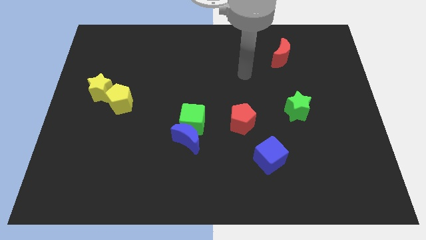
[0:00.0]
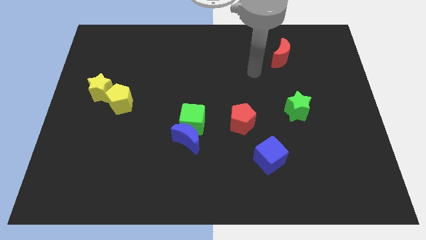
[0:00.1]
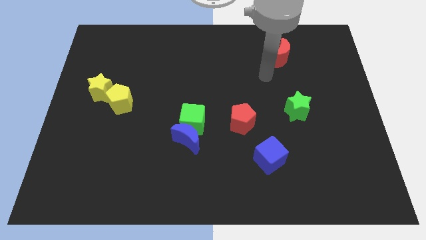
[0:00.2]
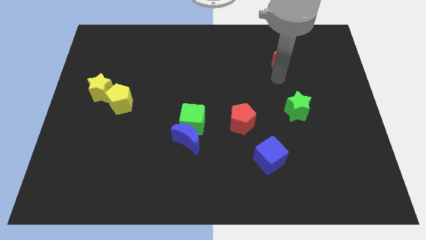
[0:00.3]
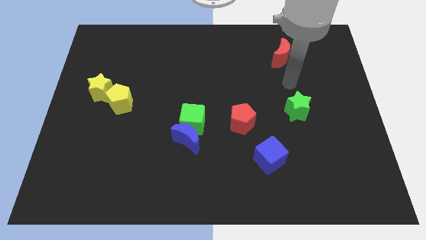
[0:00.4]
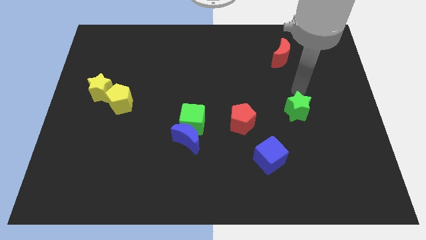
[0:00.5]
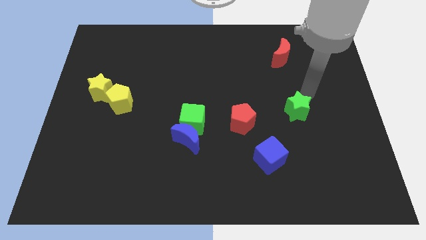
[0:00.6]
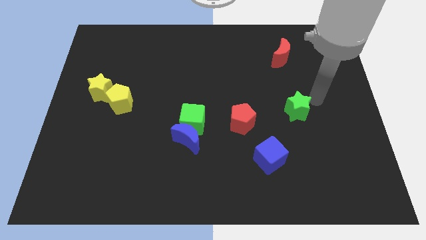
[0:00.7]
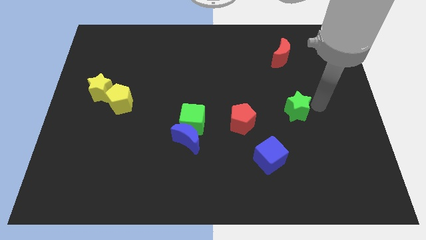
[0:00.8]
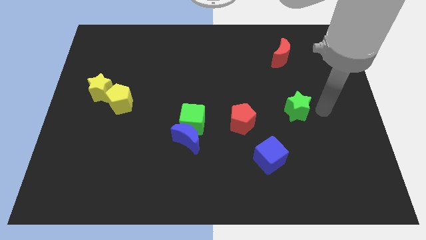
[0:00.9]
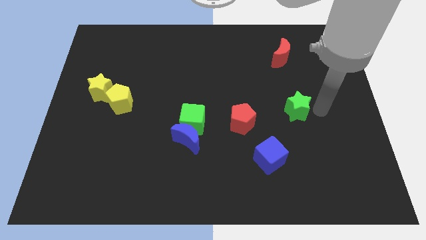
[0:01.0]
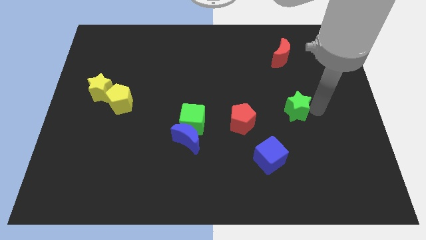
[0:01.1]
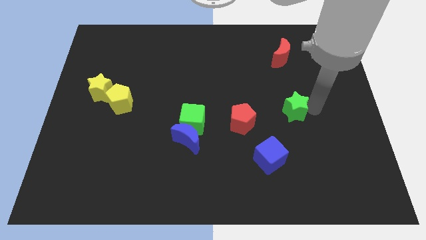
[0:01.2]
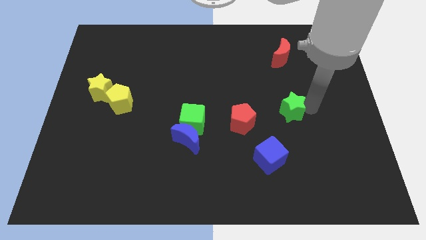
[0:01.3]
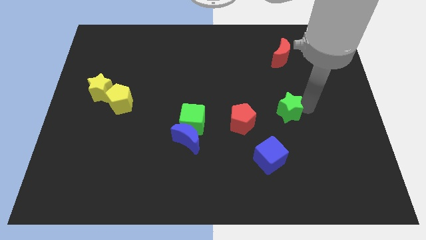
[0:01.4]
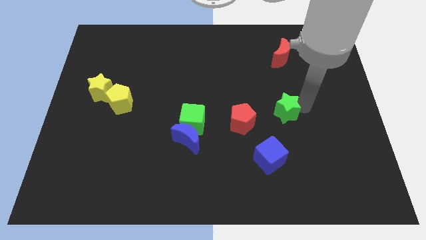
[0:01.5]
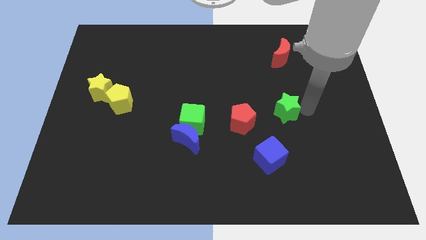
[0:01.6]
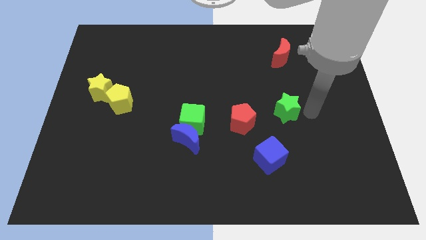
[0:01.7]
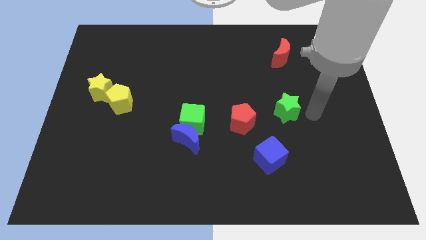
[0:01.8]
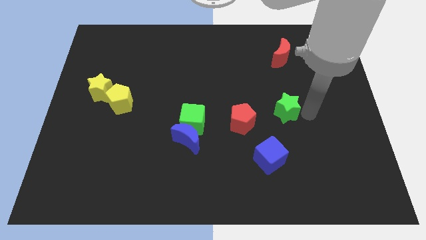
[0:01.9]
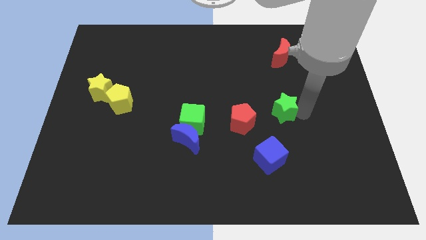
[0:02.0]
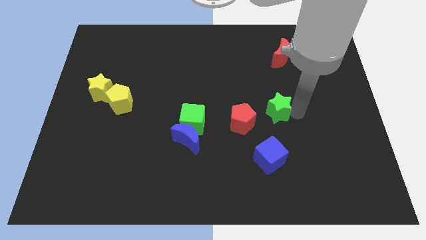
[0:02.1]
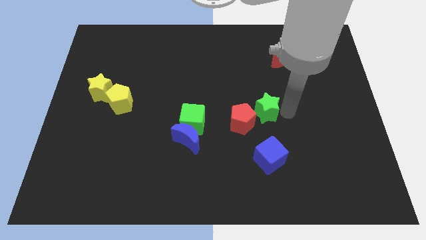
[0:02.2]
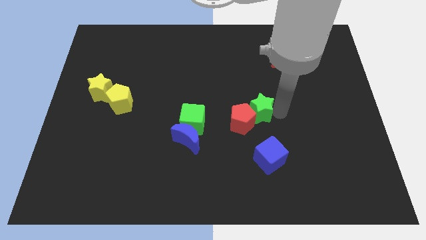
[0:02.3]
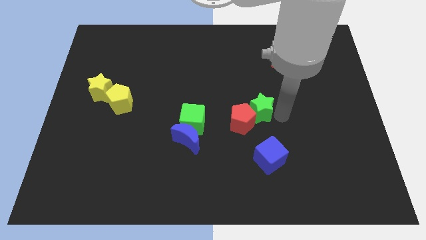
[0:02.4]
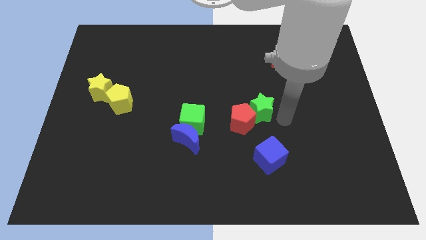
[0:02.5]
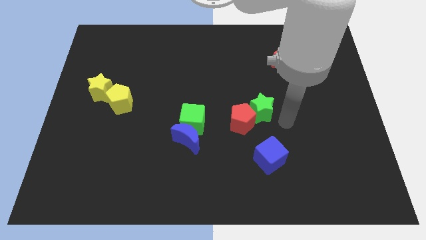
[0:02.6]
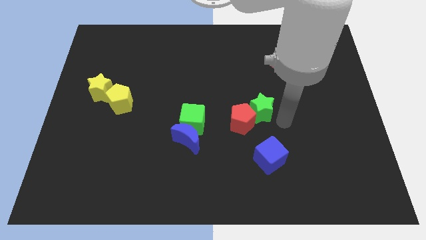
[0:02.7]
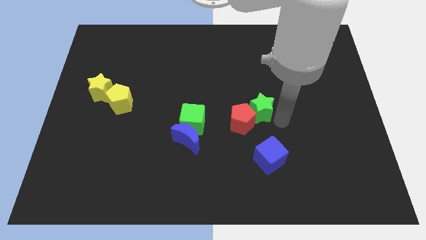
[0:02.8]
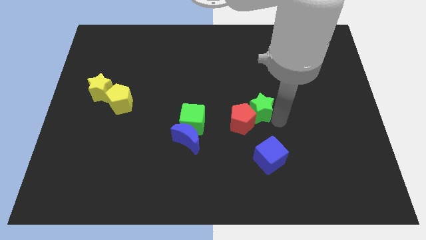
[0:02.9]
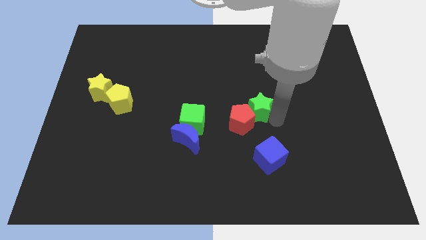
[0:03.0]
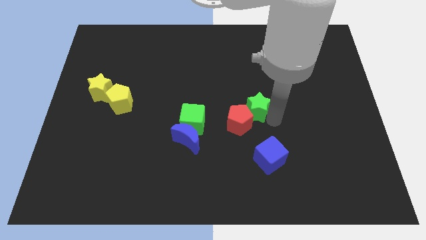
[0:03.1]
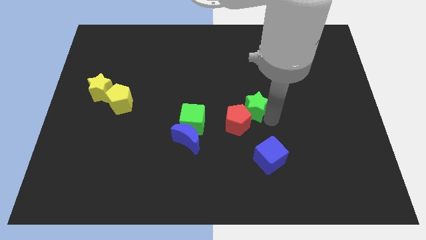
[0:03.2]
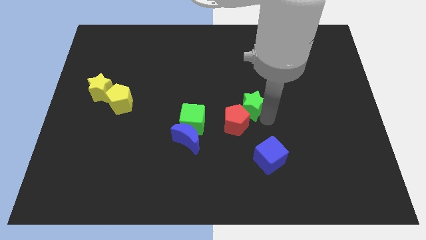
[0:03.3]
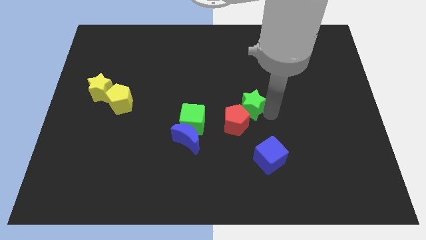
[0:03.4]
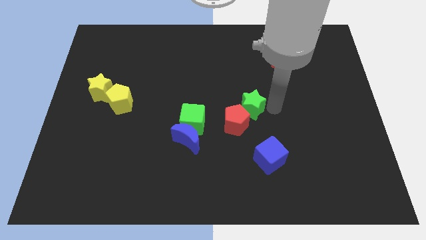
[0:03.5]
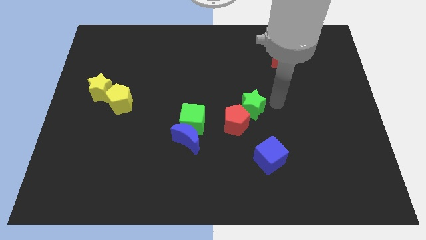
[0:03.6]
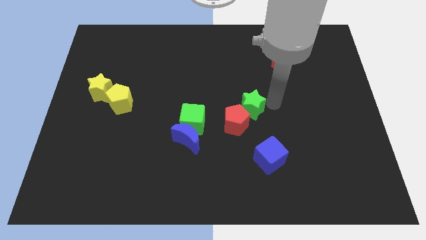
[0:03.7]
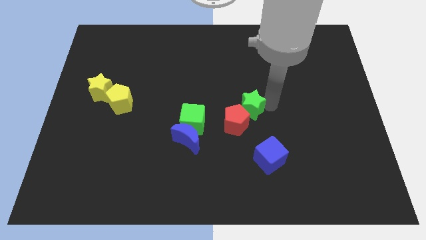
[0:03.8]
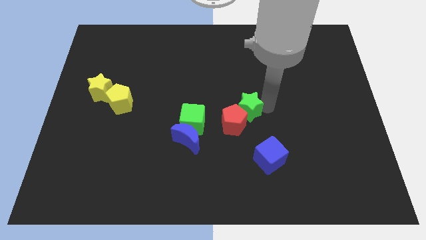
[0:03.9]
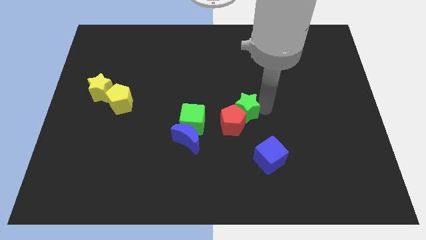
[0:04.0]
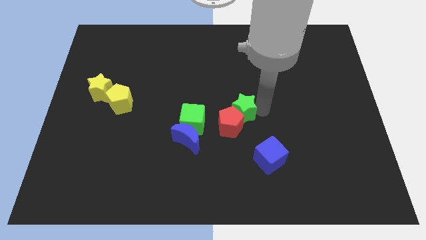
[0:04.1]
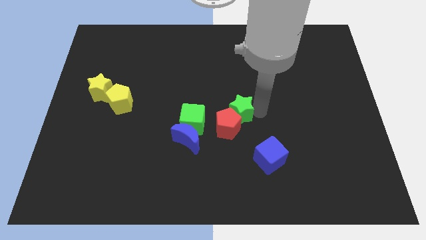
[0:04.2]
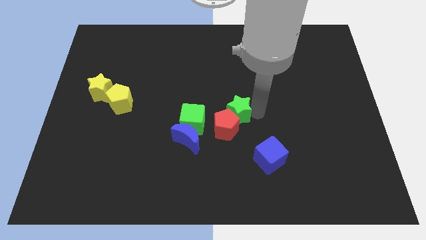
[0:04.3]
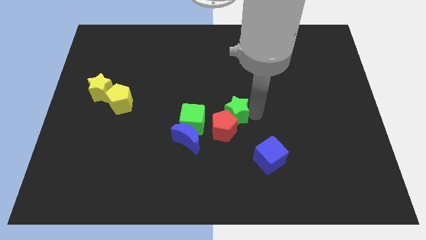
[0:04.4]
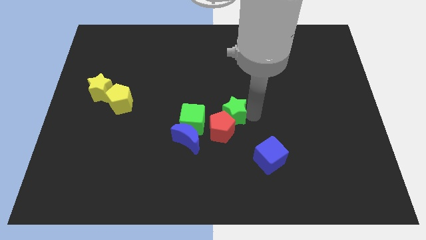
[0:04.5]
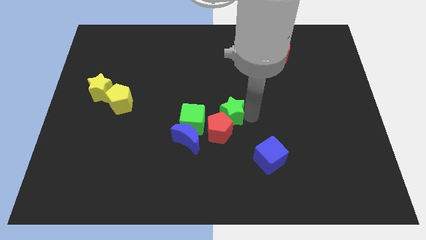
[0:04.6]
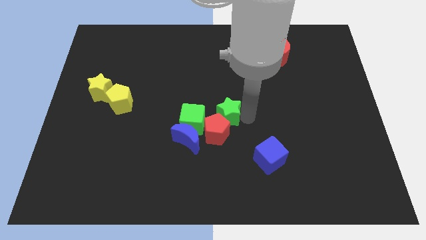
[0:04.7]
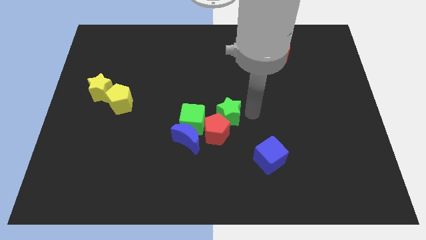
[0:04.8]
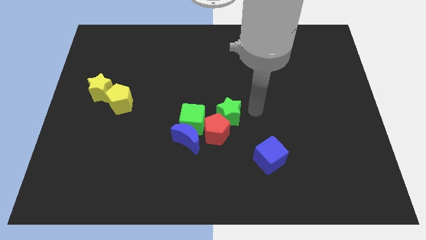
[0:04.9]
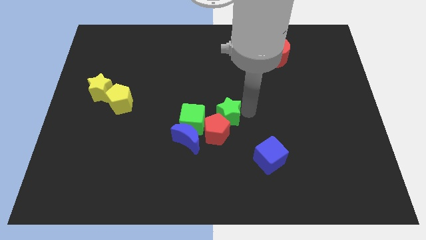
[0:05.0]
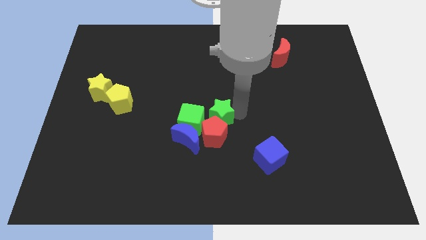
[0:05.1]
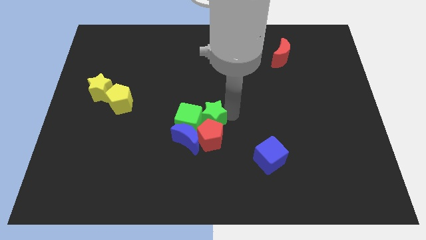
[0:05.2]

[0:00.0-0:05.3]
put the green star next to the green cube

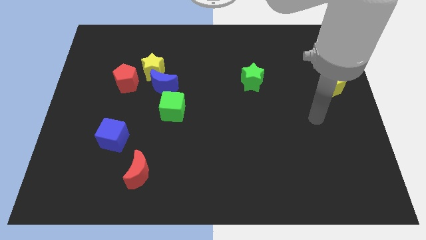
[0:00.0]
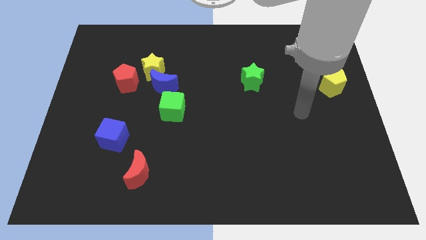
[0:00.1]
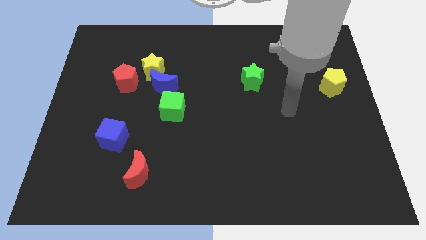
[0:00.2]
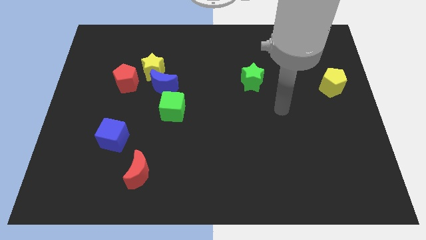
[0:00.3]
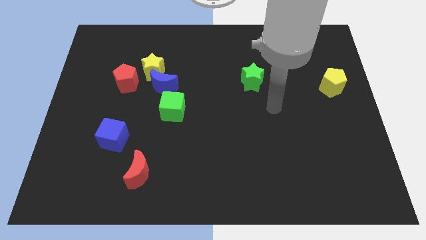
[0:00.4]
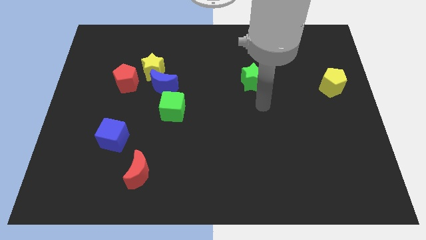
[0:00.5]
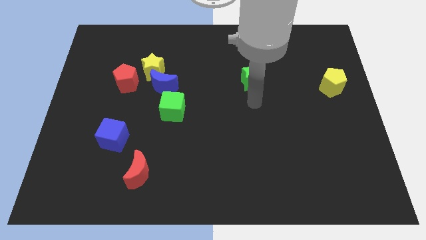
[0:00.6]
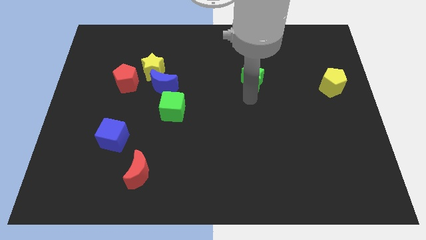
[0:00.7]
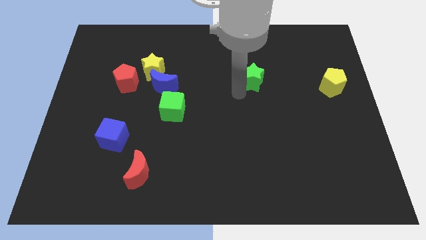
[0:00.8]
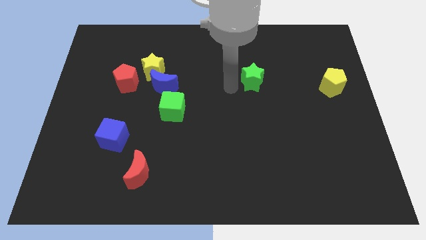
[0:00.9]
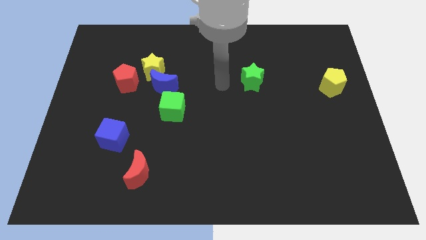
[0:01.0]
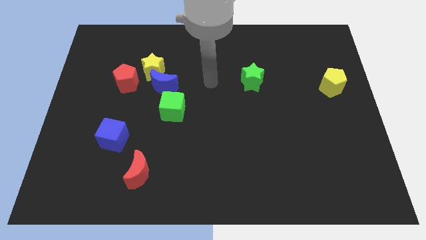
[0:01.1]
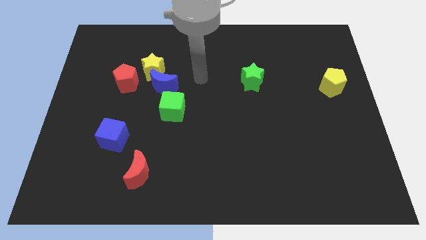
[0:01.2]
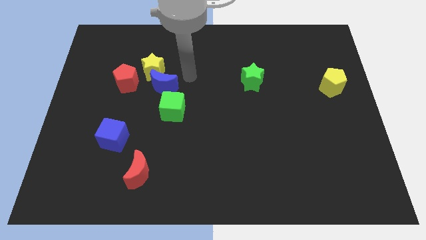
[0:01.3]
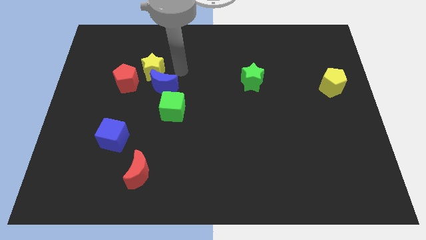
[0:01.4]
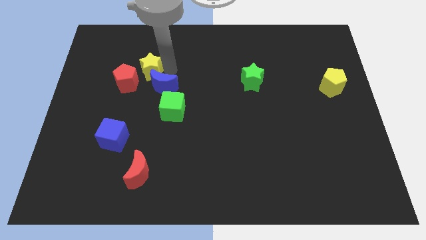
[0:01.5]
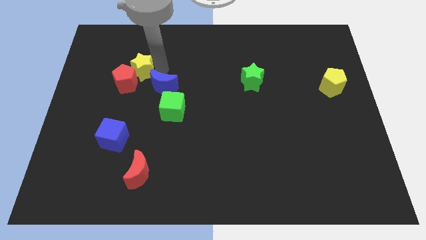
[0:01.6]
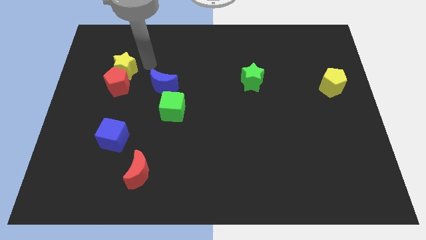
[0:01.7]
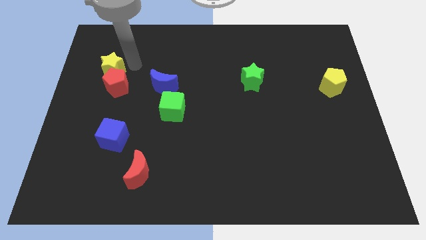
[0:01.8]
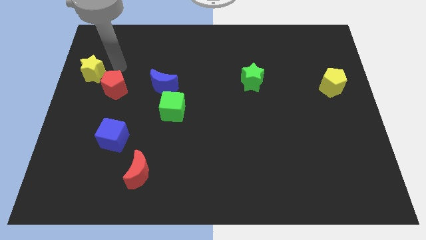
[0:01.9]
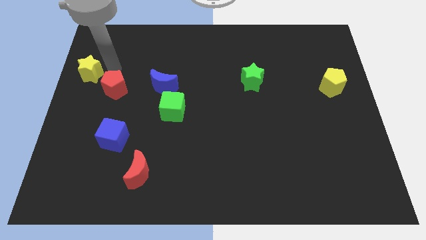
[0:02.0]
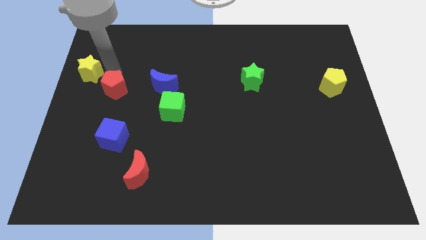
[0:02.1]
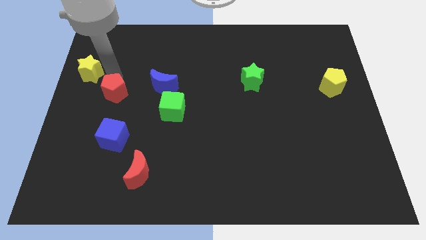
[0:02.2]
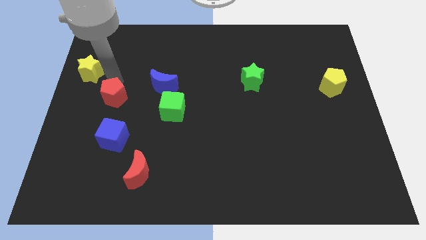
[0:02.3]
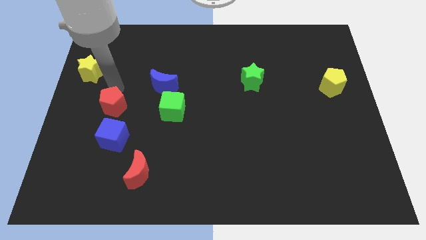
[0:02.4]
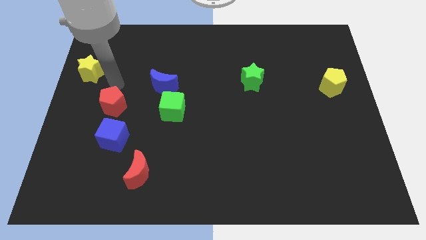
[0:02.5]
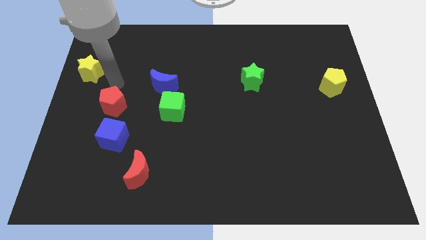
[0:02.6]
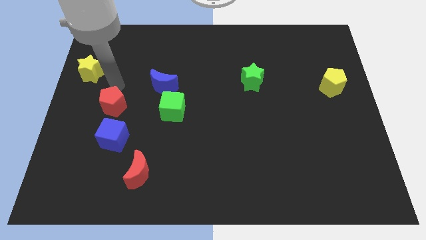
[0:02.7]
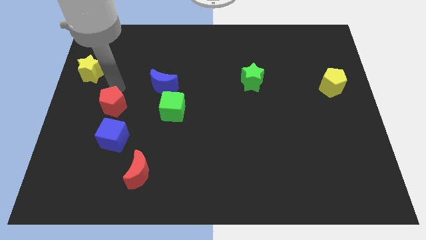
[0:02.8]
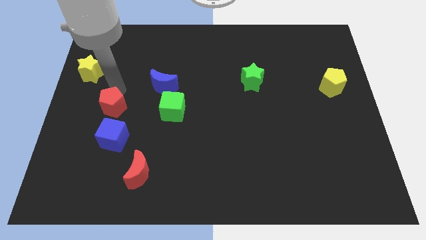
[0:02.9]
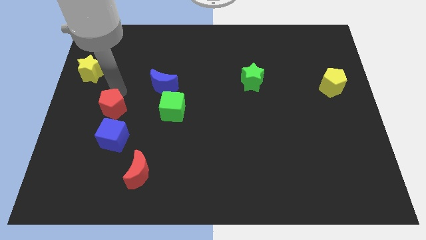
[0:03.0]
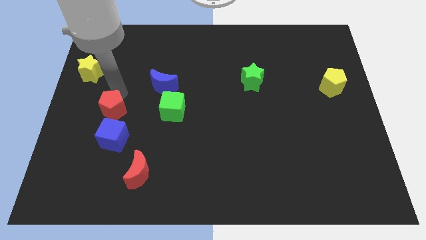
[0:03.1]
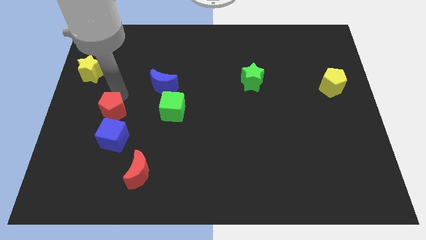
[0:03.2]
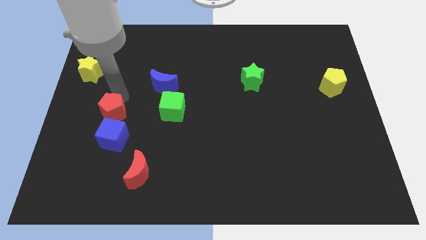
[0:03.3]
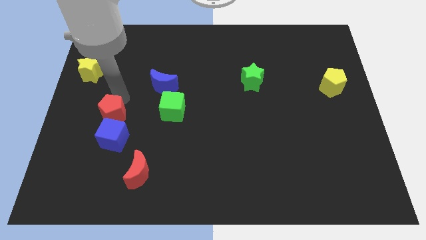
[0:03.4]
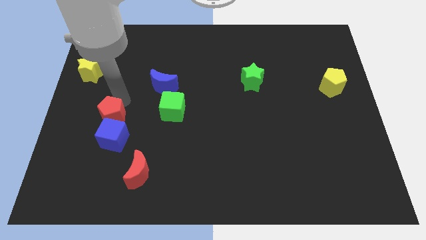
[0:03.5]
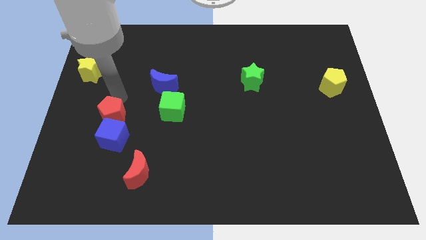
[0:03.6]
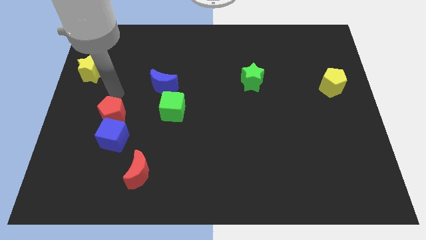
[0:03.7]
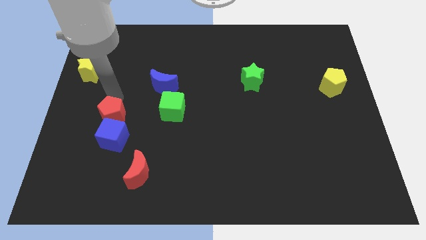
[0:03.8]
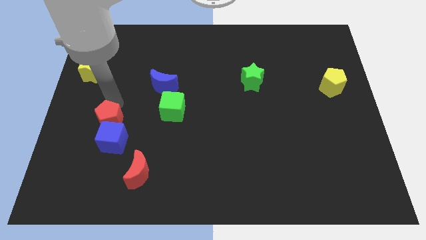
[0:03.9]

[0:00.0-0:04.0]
slide the red pentagon close to the blue cube
